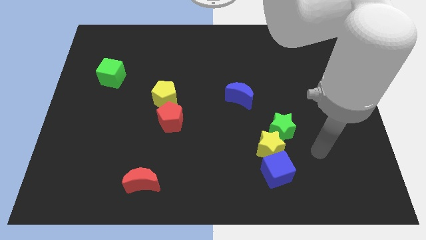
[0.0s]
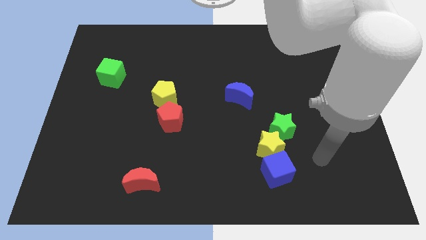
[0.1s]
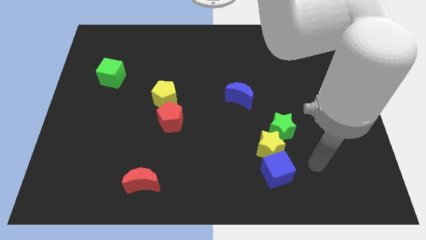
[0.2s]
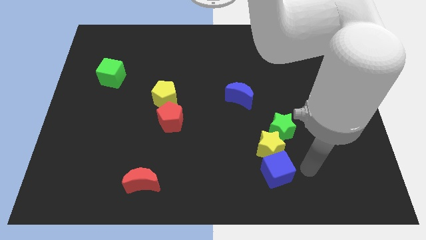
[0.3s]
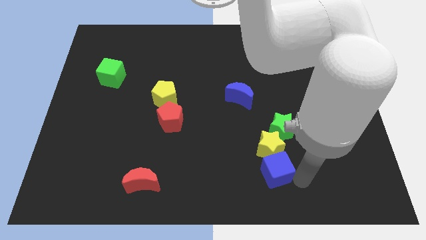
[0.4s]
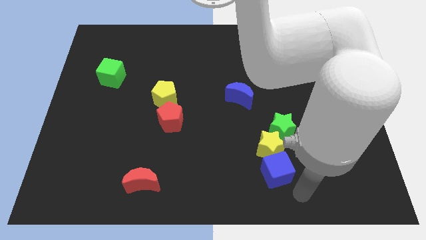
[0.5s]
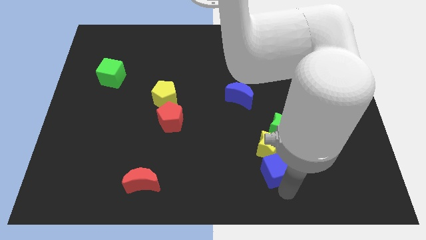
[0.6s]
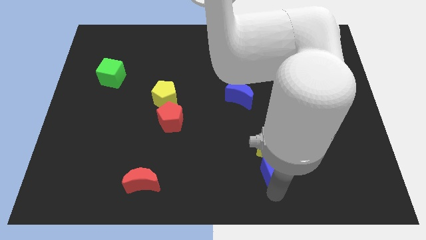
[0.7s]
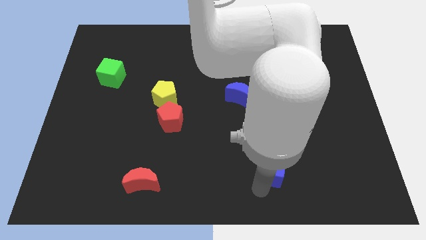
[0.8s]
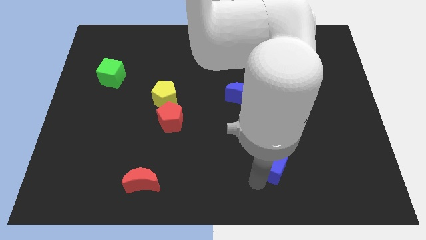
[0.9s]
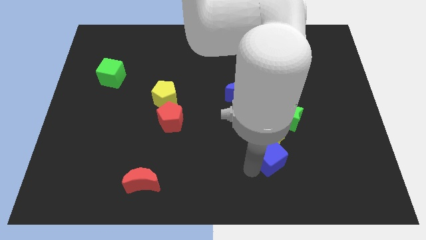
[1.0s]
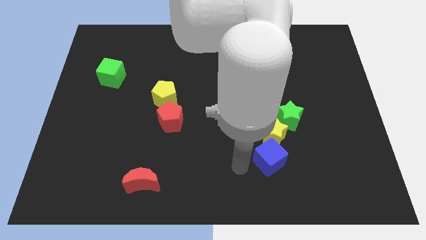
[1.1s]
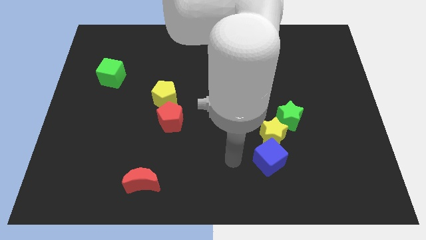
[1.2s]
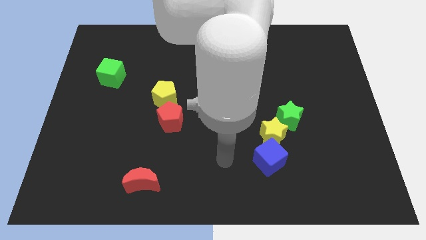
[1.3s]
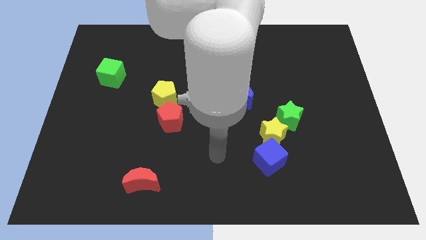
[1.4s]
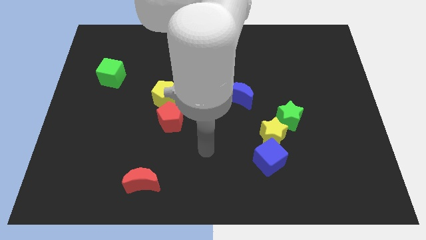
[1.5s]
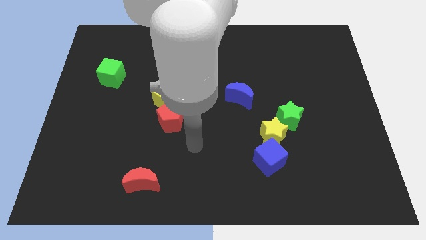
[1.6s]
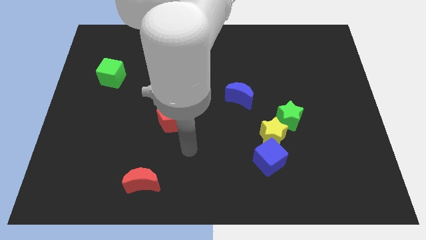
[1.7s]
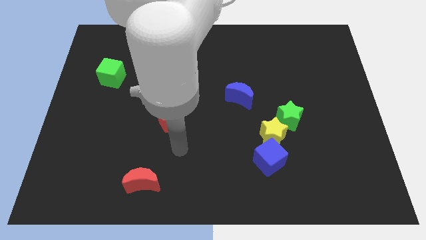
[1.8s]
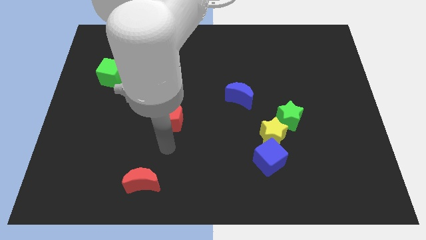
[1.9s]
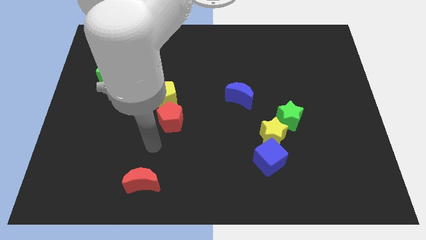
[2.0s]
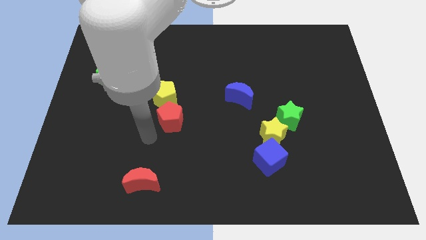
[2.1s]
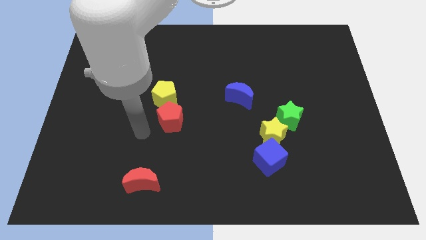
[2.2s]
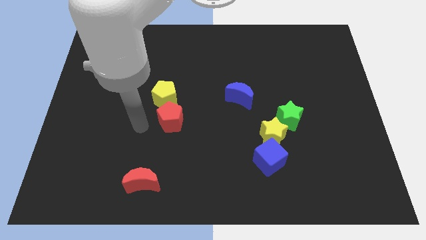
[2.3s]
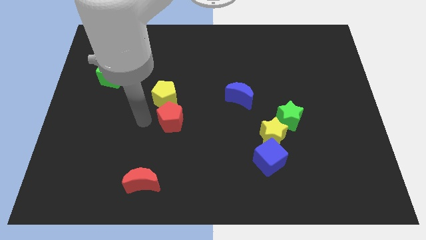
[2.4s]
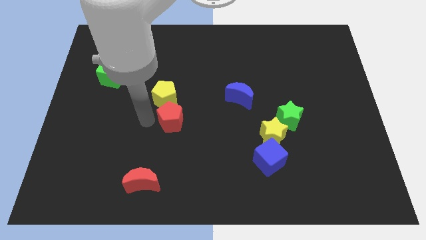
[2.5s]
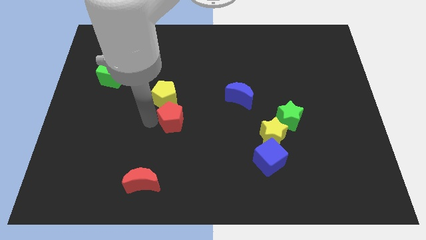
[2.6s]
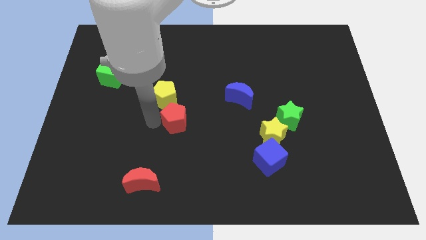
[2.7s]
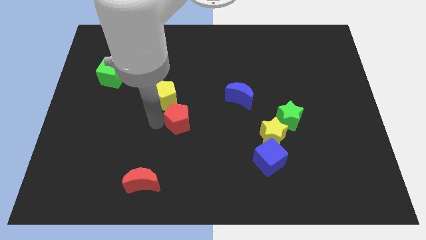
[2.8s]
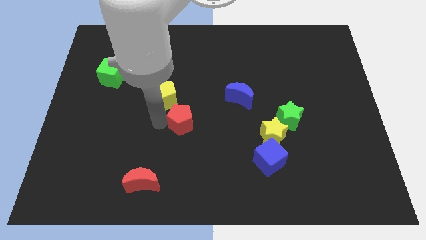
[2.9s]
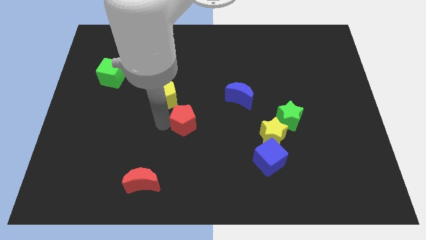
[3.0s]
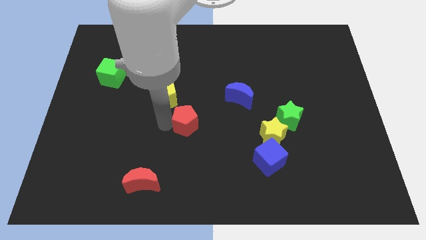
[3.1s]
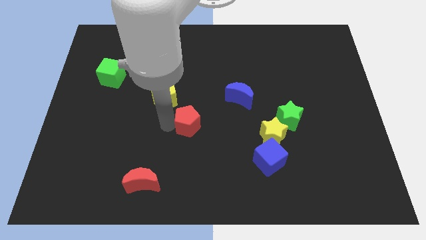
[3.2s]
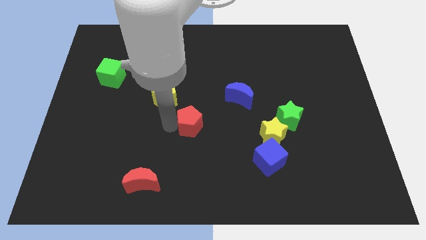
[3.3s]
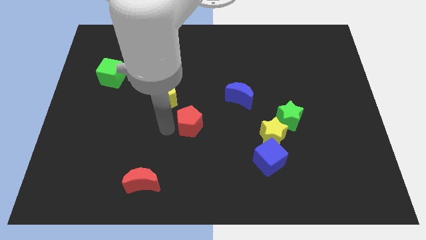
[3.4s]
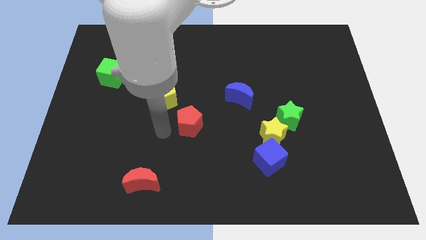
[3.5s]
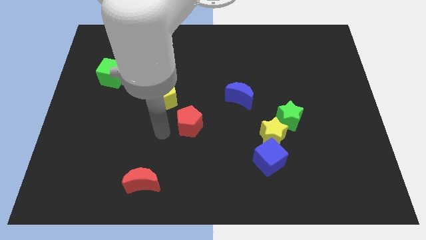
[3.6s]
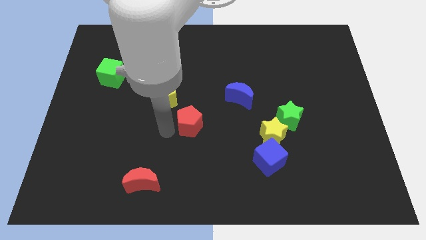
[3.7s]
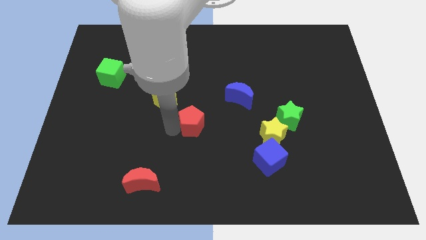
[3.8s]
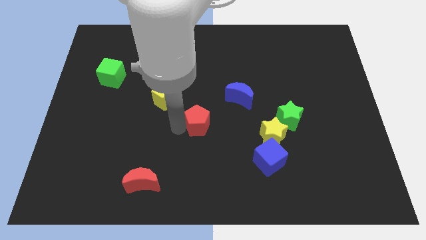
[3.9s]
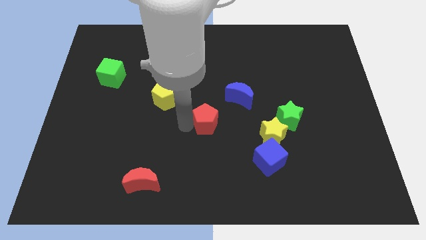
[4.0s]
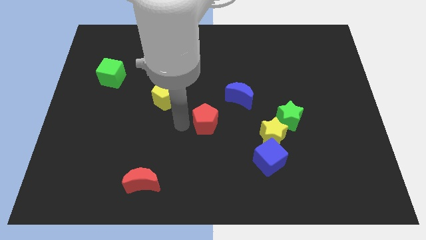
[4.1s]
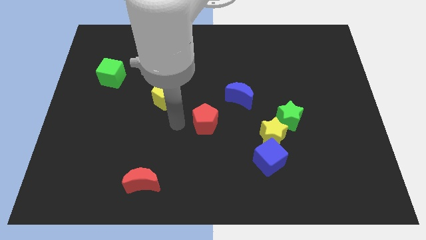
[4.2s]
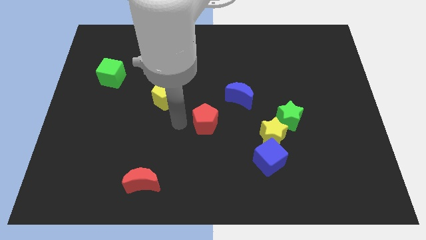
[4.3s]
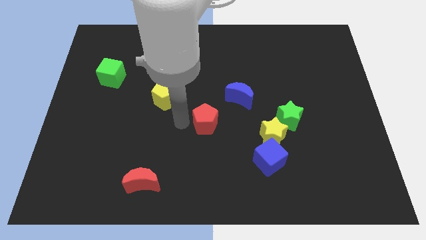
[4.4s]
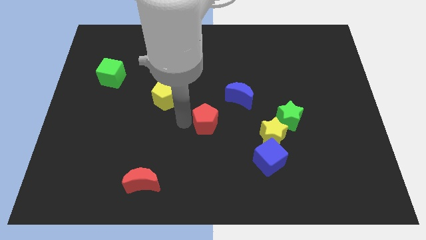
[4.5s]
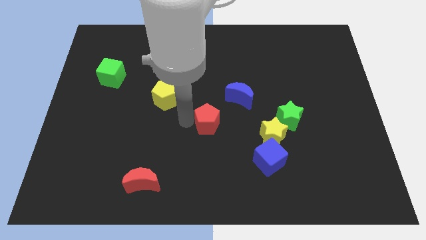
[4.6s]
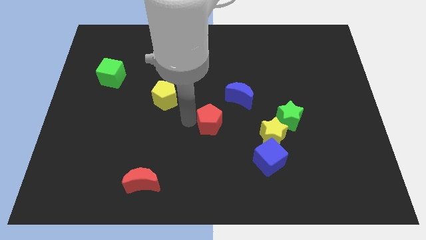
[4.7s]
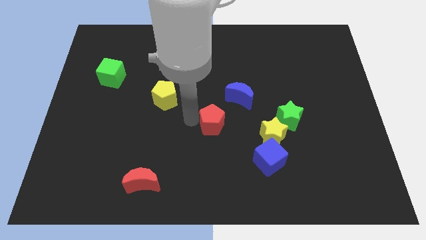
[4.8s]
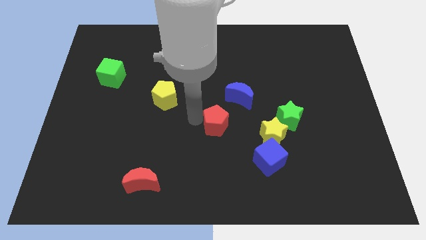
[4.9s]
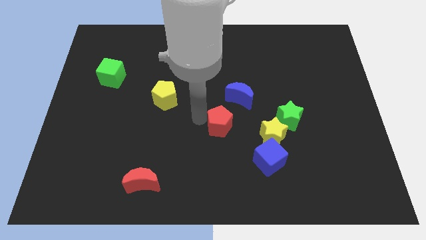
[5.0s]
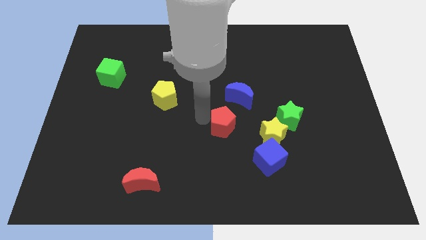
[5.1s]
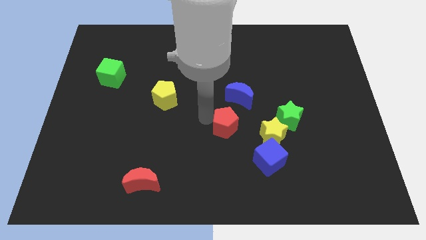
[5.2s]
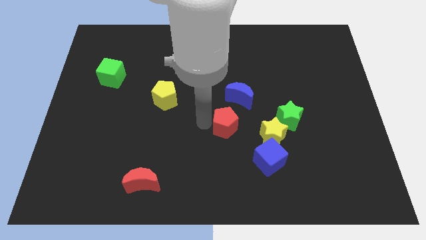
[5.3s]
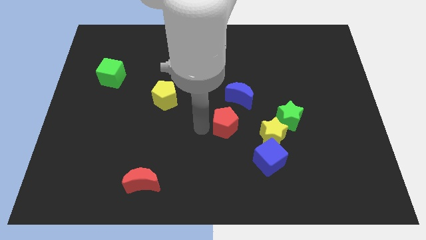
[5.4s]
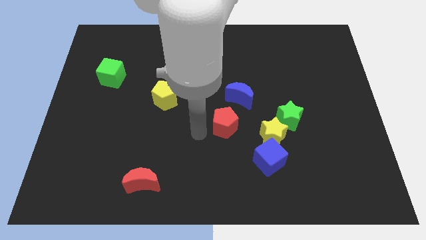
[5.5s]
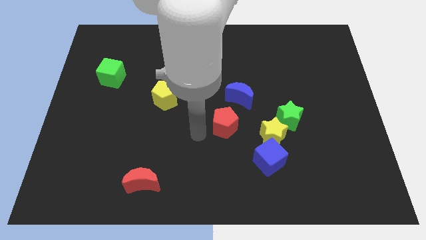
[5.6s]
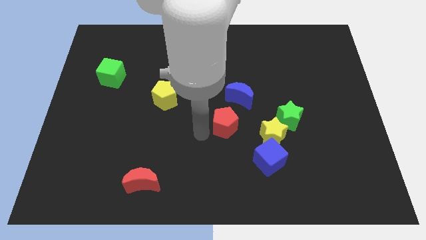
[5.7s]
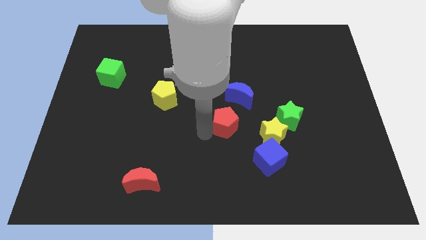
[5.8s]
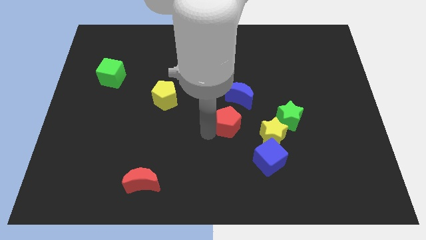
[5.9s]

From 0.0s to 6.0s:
put the red pentagon diagonally up and to the left of the yellow star

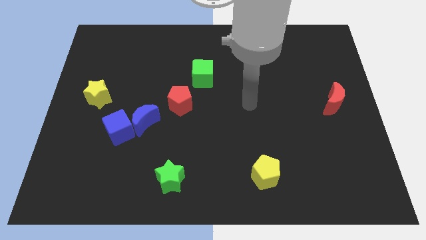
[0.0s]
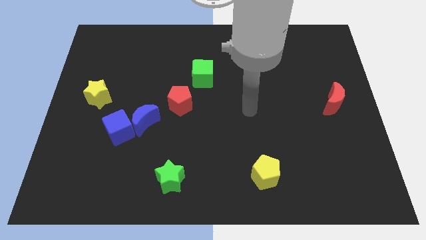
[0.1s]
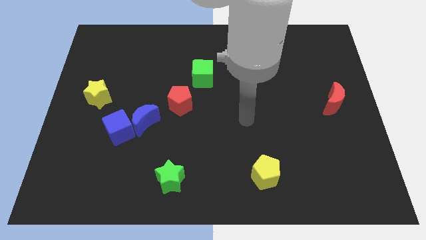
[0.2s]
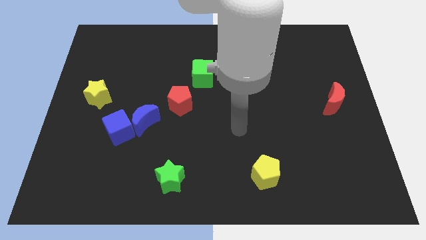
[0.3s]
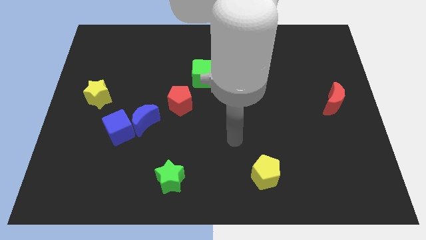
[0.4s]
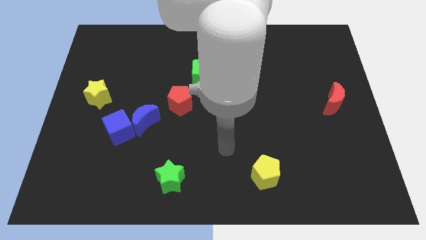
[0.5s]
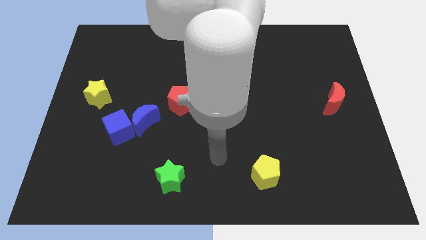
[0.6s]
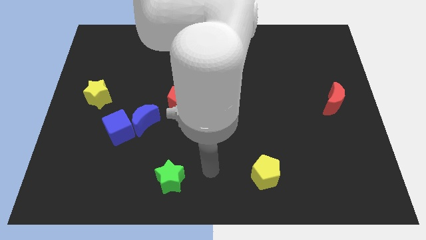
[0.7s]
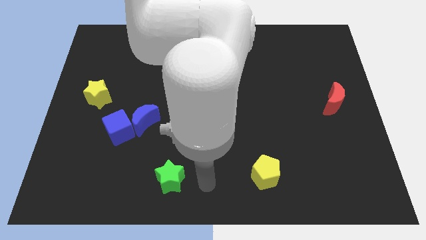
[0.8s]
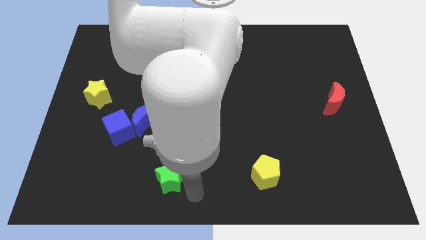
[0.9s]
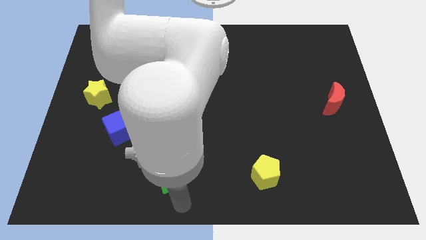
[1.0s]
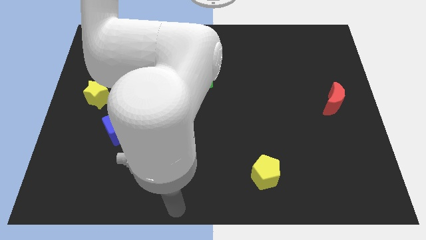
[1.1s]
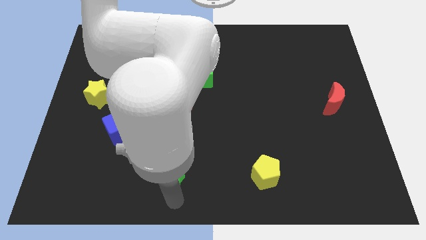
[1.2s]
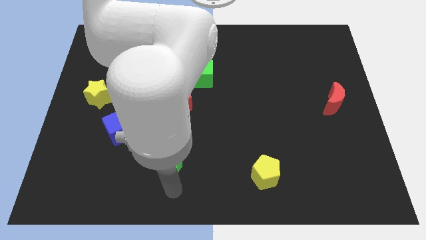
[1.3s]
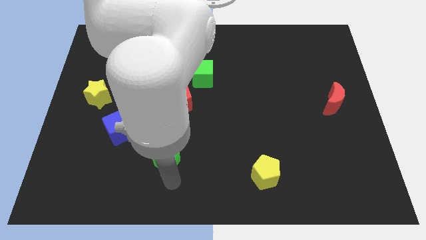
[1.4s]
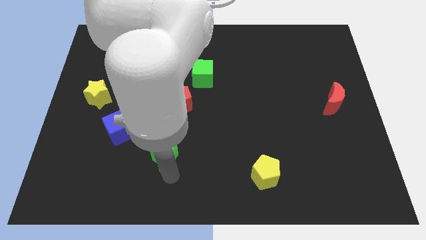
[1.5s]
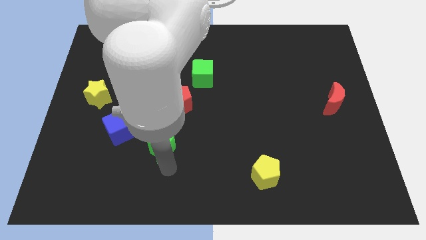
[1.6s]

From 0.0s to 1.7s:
put the green star right of the blue cube
